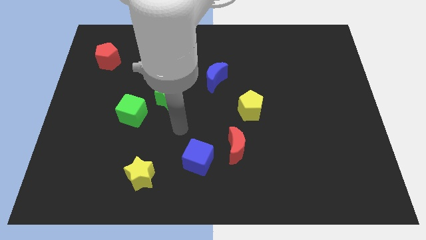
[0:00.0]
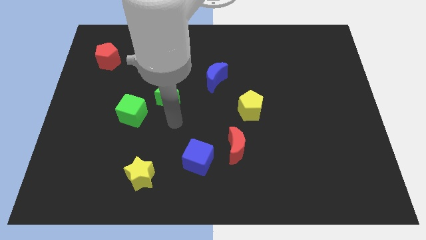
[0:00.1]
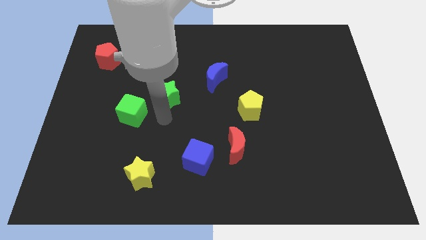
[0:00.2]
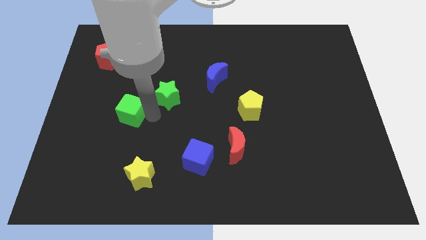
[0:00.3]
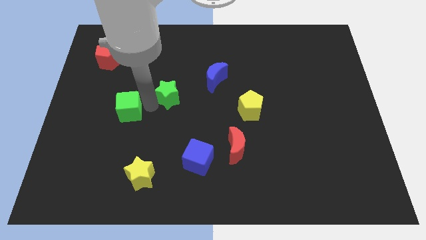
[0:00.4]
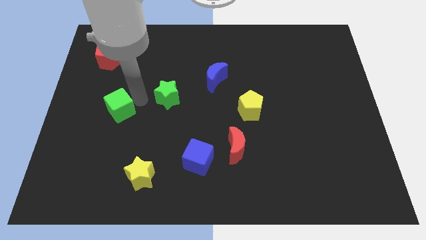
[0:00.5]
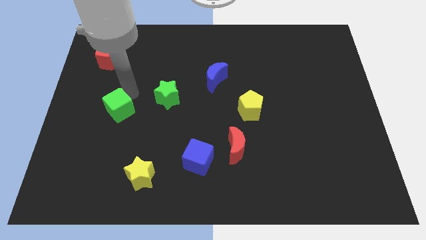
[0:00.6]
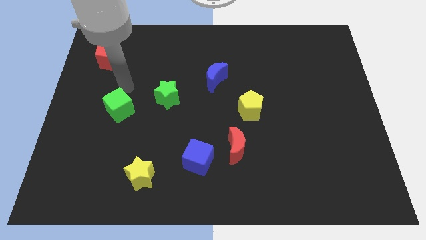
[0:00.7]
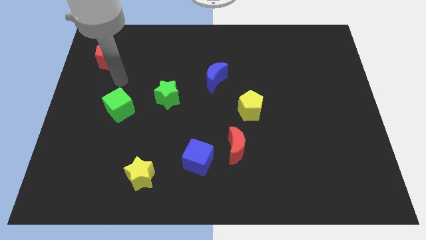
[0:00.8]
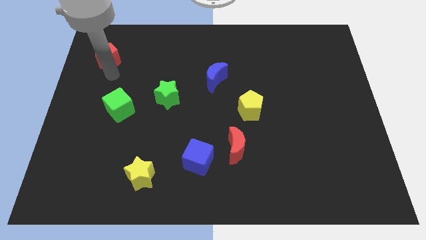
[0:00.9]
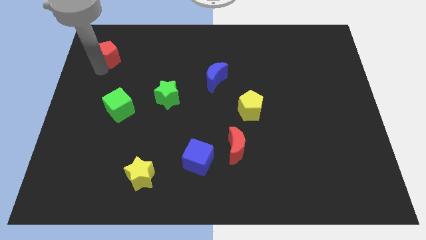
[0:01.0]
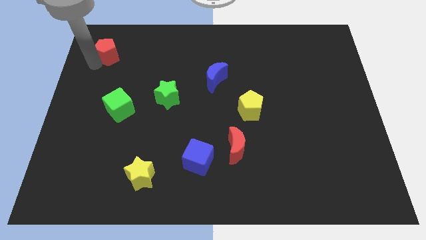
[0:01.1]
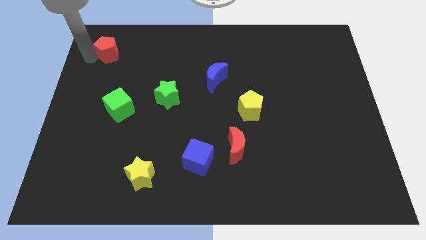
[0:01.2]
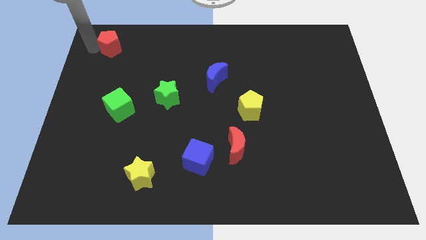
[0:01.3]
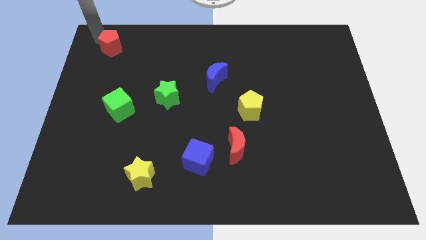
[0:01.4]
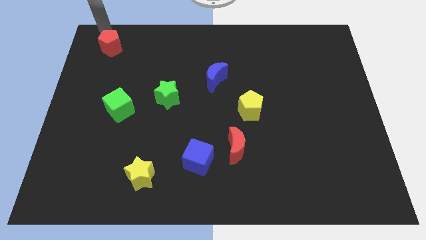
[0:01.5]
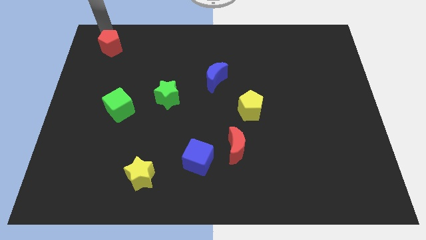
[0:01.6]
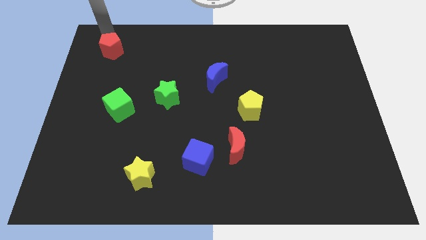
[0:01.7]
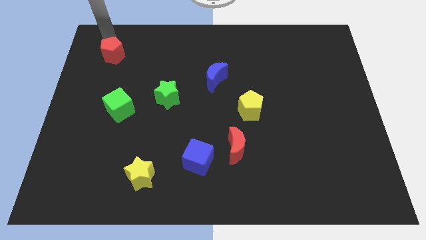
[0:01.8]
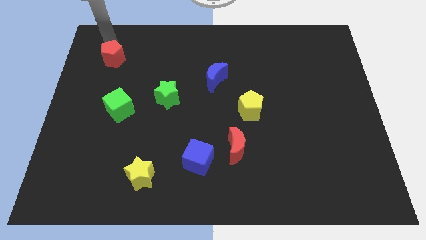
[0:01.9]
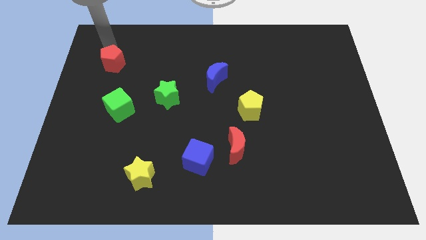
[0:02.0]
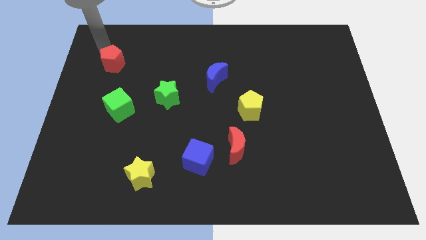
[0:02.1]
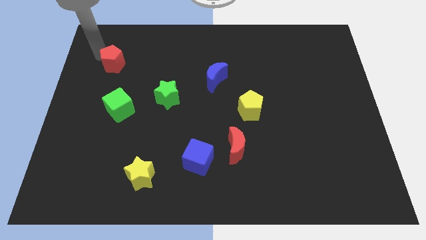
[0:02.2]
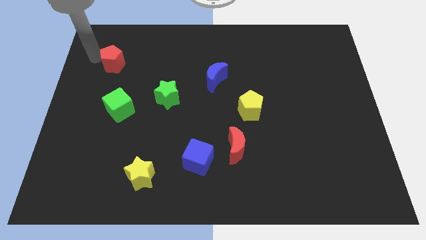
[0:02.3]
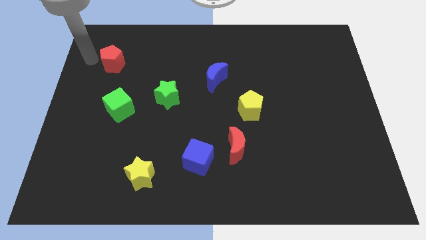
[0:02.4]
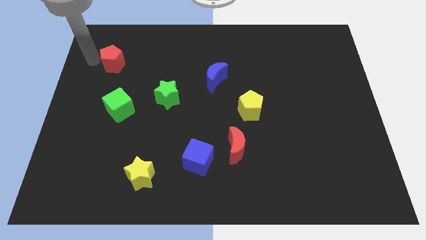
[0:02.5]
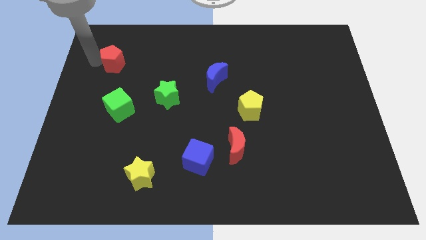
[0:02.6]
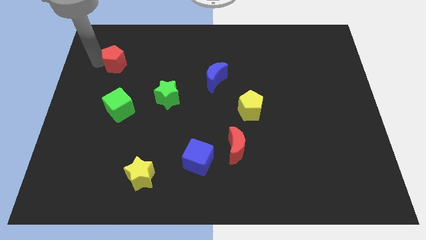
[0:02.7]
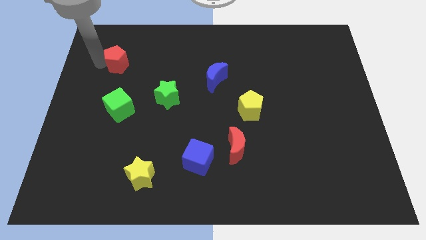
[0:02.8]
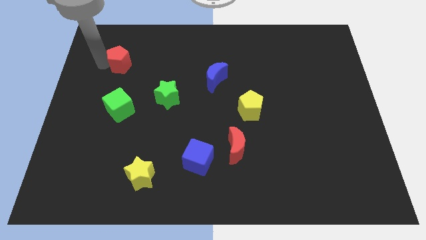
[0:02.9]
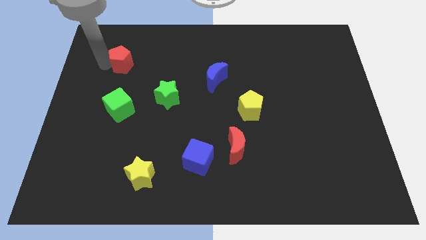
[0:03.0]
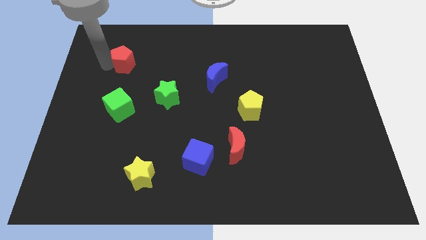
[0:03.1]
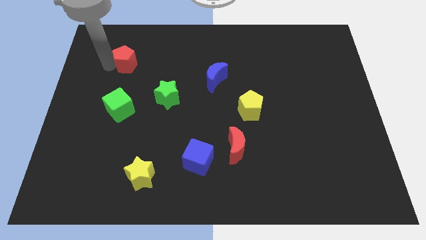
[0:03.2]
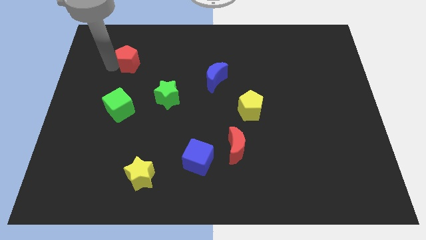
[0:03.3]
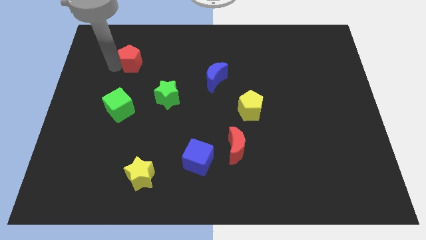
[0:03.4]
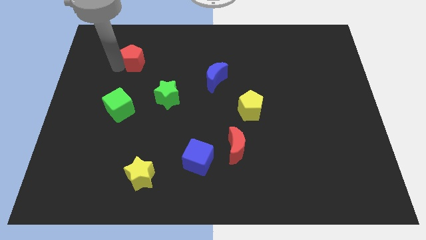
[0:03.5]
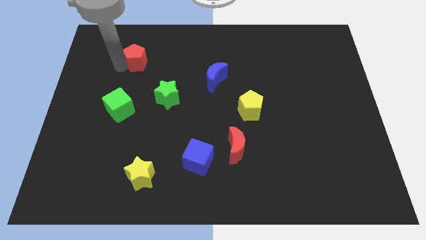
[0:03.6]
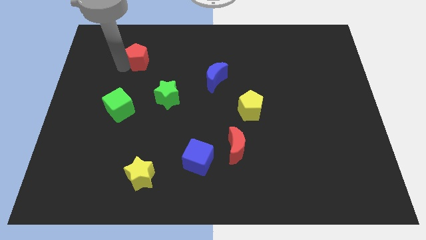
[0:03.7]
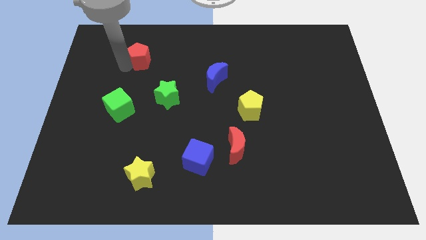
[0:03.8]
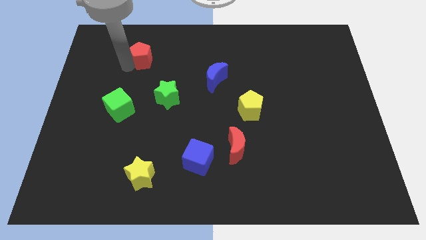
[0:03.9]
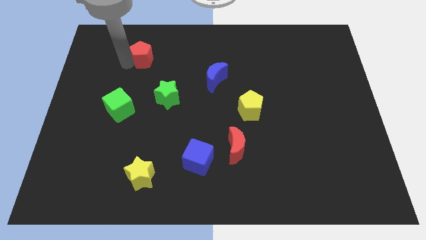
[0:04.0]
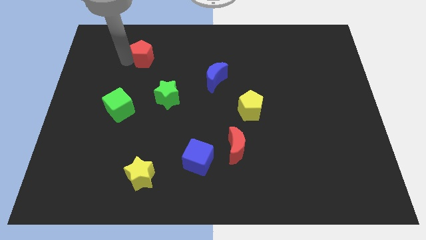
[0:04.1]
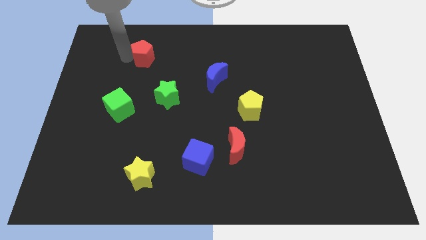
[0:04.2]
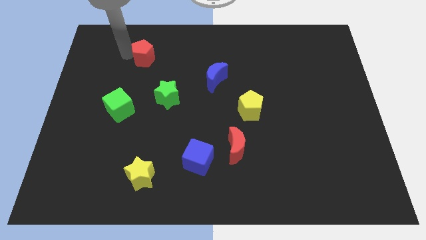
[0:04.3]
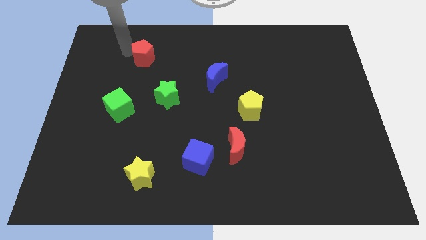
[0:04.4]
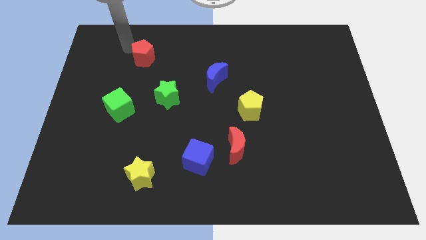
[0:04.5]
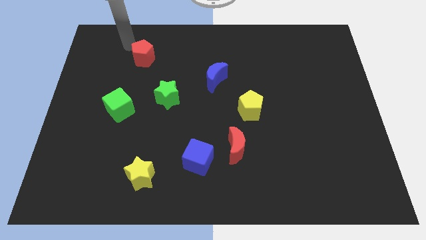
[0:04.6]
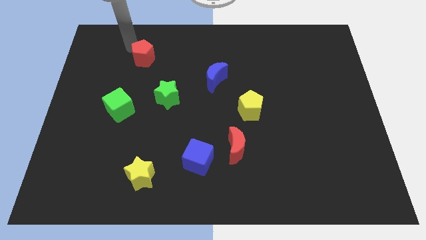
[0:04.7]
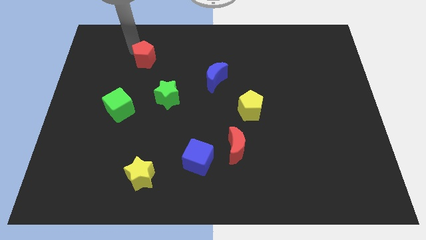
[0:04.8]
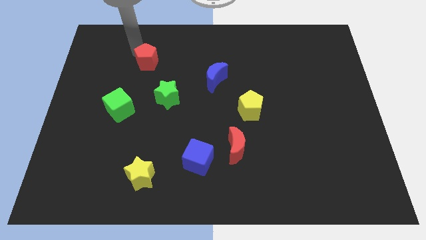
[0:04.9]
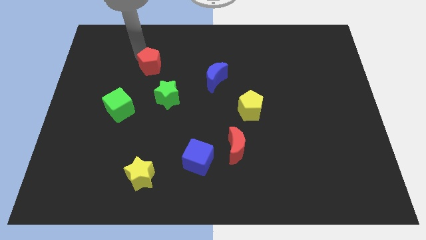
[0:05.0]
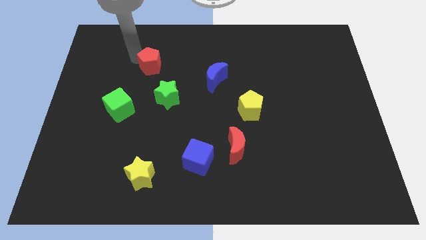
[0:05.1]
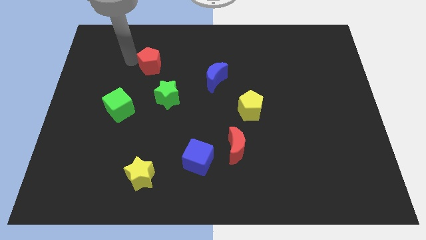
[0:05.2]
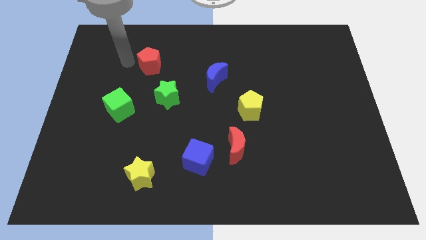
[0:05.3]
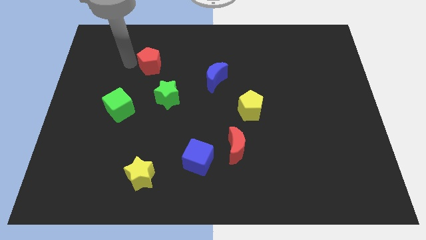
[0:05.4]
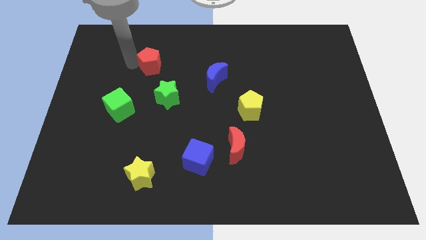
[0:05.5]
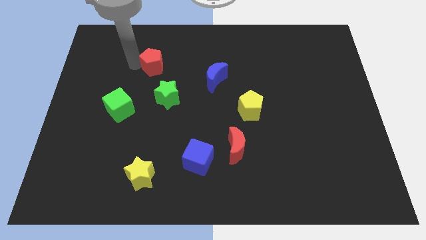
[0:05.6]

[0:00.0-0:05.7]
put the red pentagon to the top side of the green star

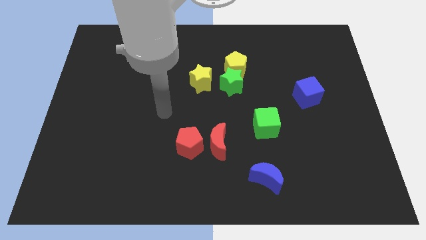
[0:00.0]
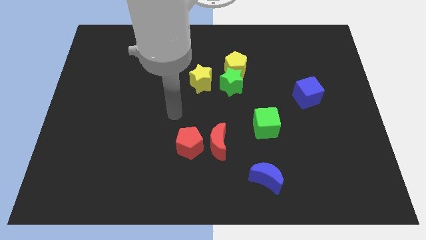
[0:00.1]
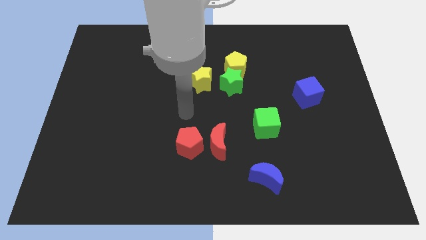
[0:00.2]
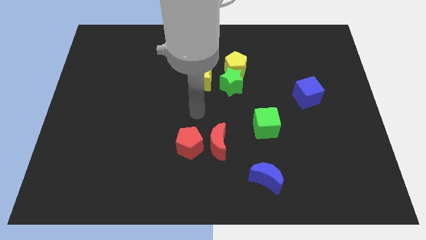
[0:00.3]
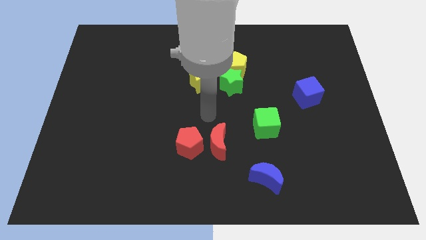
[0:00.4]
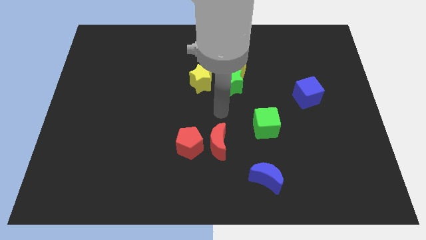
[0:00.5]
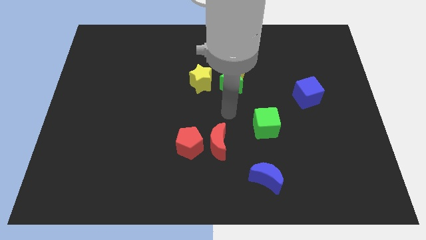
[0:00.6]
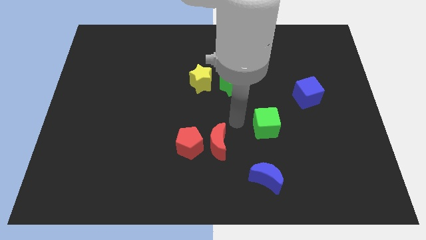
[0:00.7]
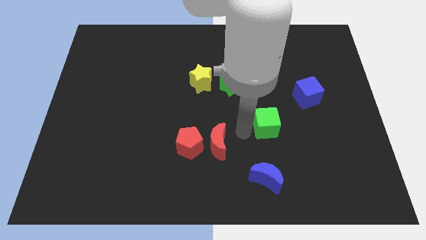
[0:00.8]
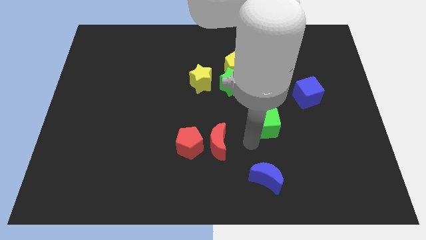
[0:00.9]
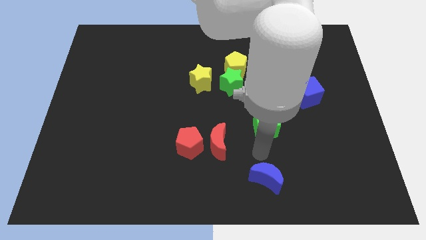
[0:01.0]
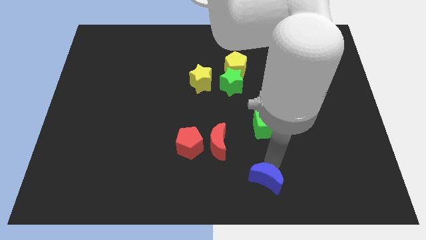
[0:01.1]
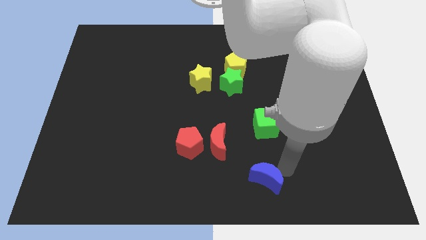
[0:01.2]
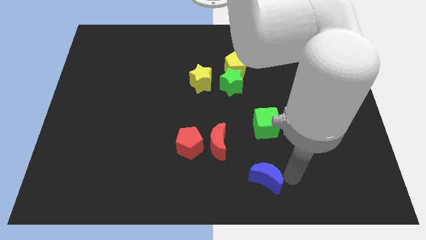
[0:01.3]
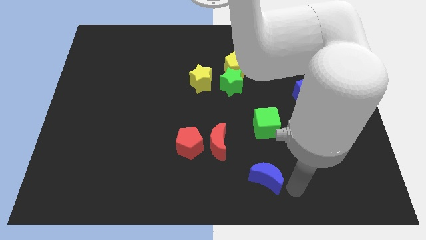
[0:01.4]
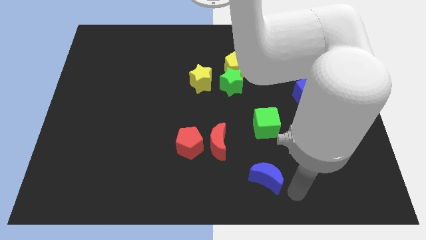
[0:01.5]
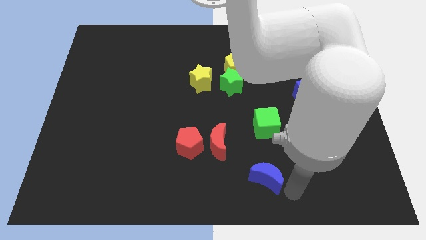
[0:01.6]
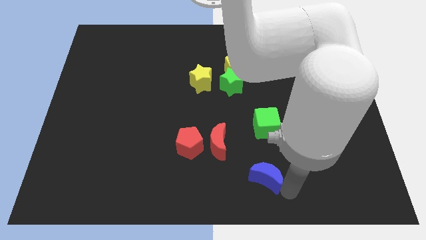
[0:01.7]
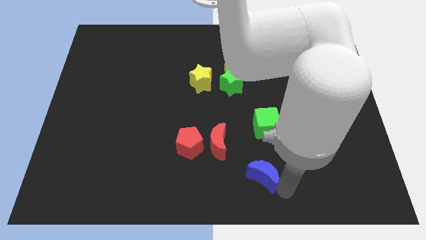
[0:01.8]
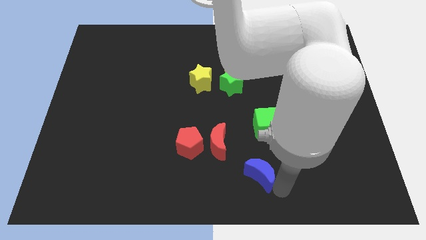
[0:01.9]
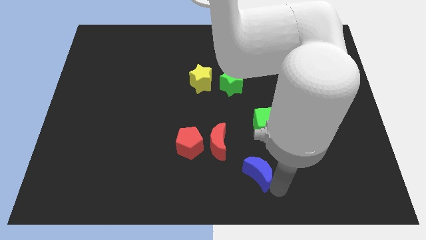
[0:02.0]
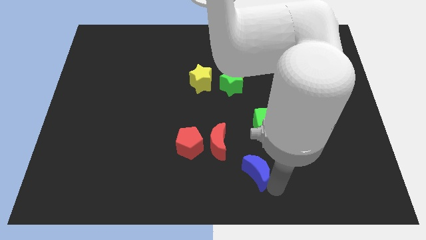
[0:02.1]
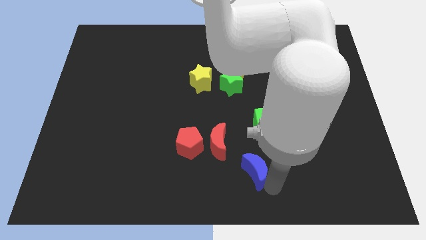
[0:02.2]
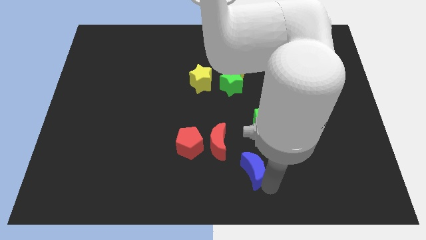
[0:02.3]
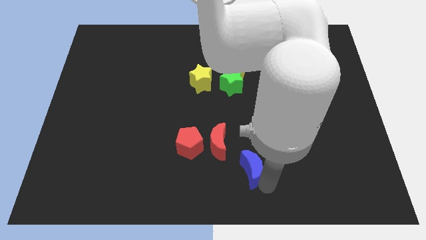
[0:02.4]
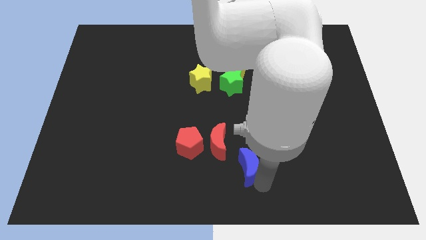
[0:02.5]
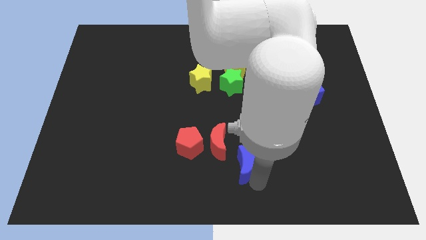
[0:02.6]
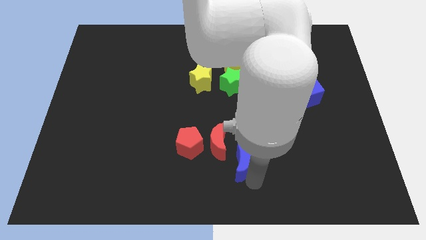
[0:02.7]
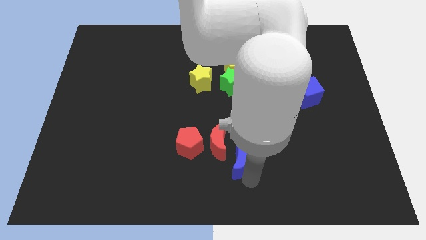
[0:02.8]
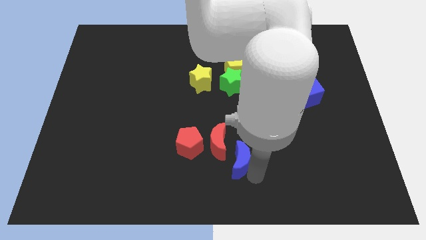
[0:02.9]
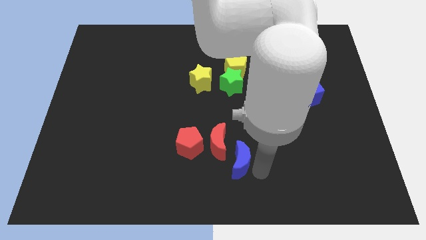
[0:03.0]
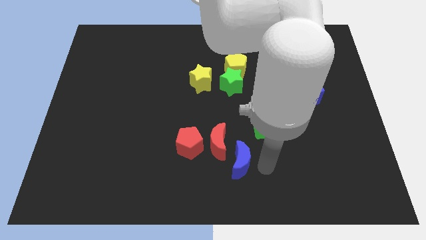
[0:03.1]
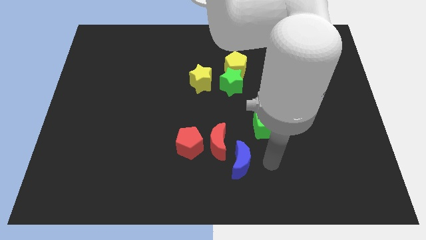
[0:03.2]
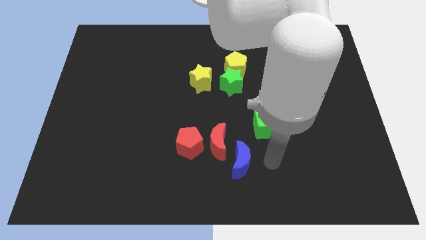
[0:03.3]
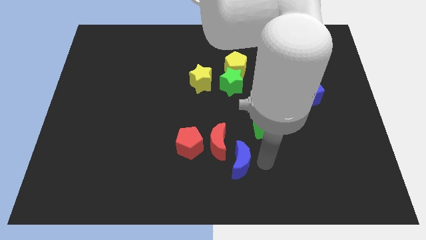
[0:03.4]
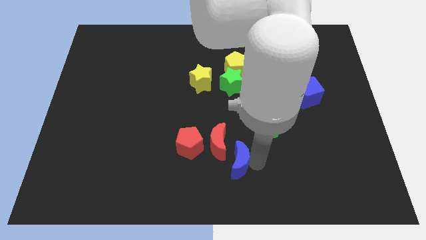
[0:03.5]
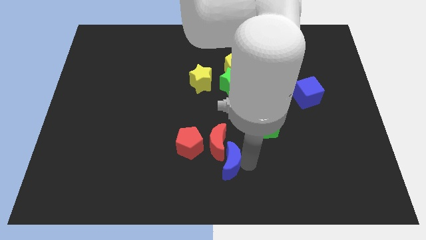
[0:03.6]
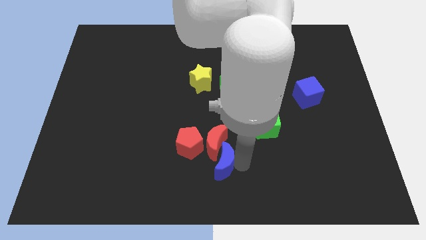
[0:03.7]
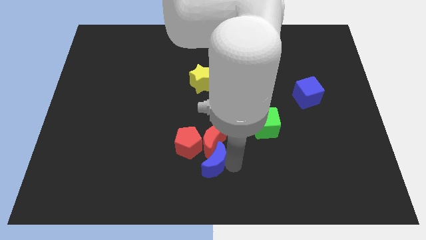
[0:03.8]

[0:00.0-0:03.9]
move the blue moon to the bottom left side of the red moon
